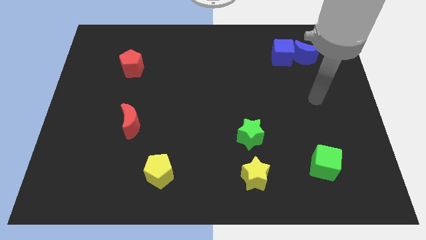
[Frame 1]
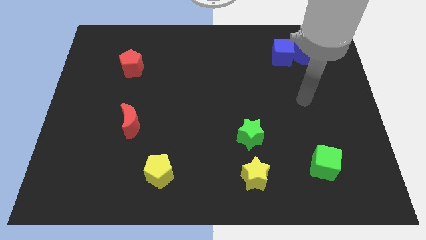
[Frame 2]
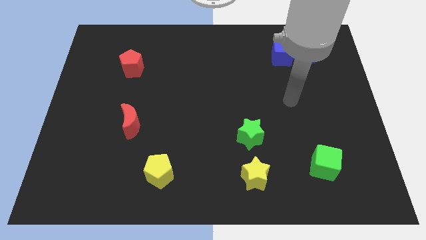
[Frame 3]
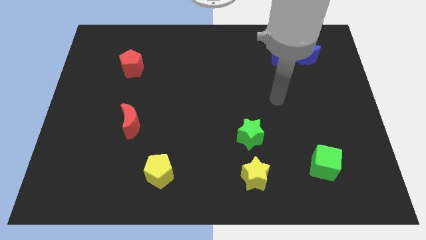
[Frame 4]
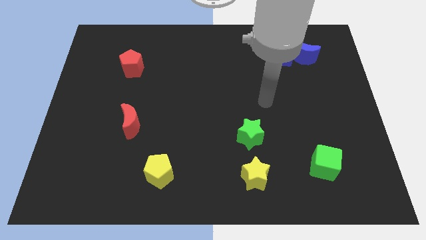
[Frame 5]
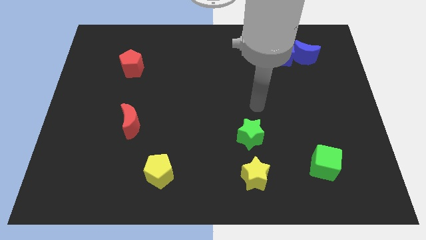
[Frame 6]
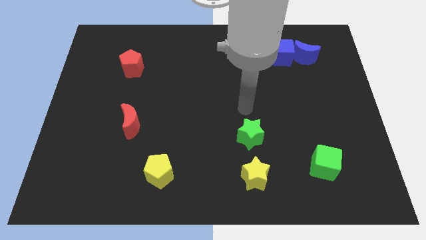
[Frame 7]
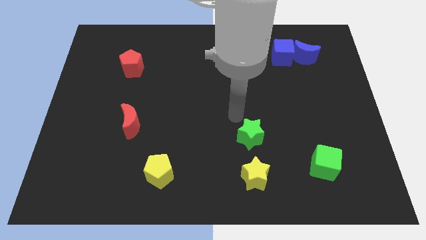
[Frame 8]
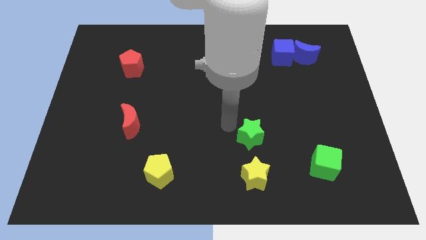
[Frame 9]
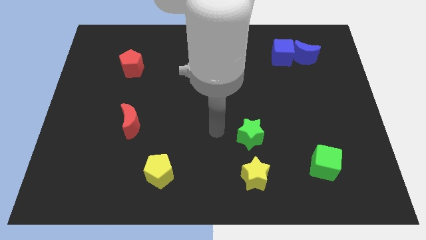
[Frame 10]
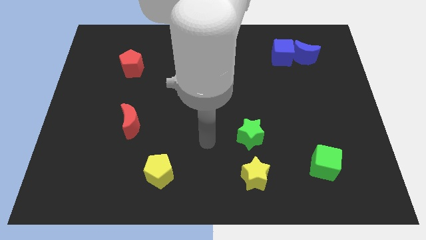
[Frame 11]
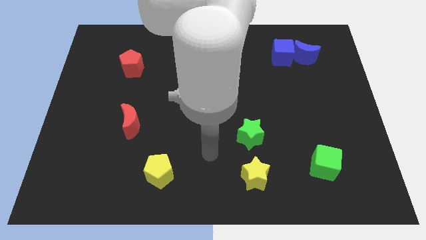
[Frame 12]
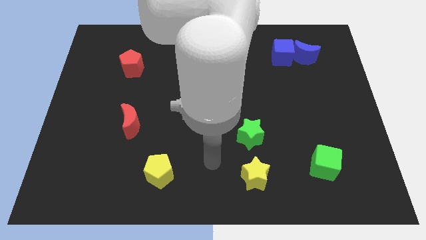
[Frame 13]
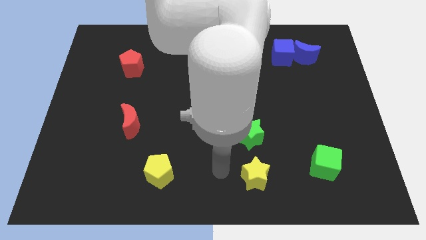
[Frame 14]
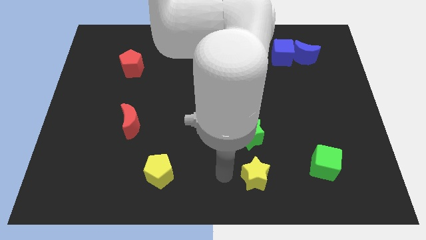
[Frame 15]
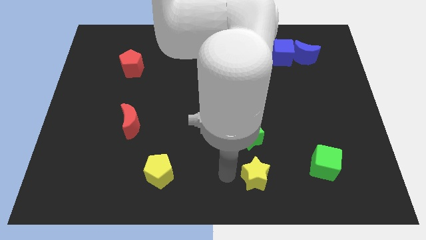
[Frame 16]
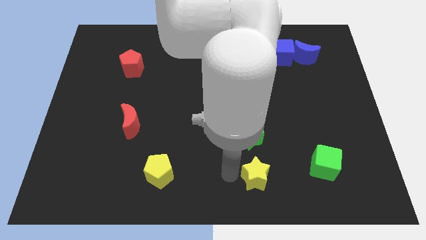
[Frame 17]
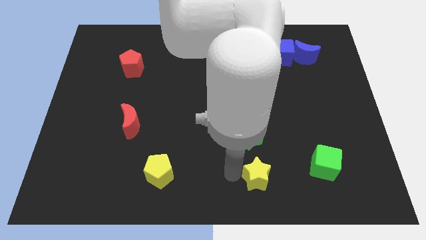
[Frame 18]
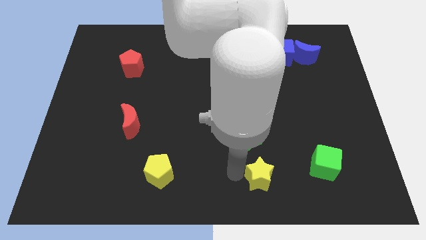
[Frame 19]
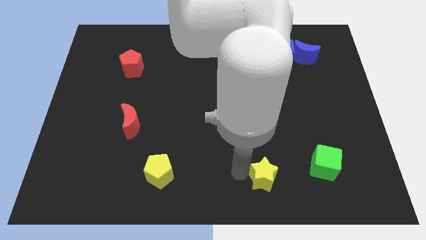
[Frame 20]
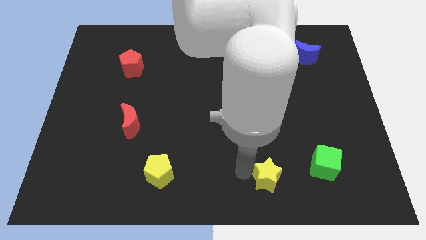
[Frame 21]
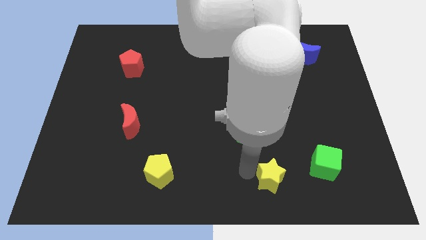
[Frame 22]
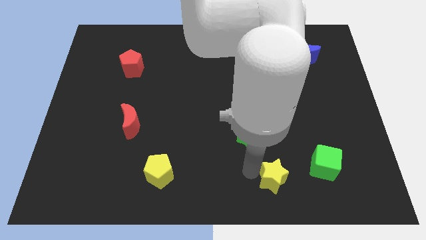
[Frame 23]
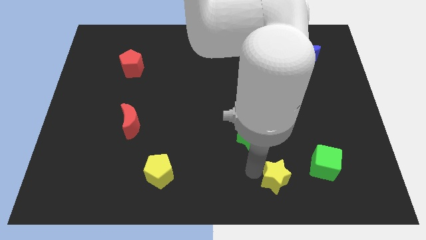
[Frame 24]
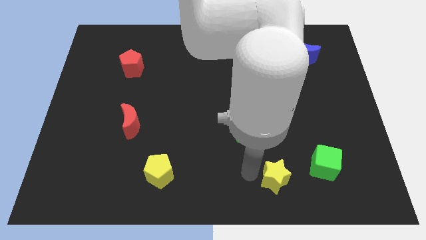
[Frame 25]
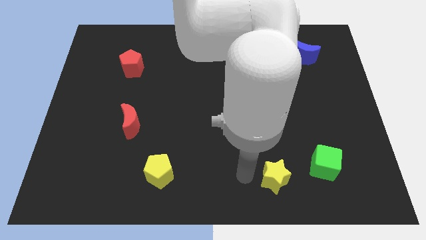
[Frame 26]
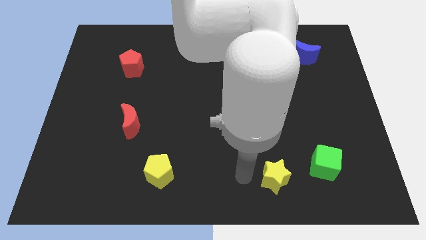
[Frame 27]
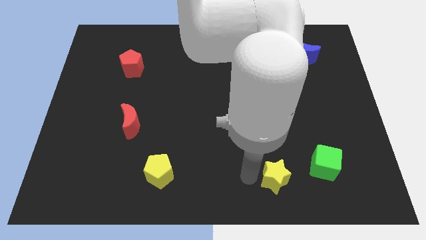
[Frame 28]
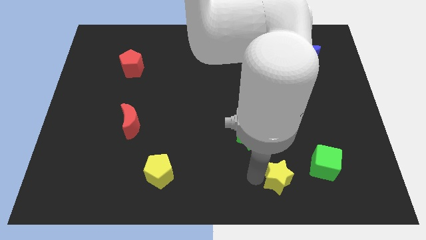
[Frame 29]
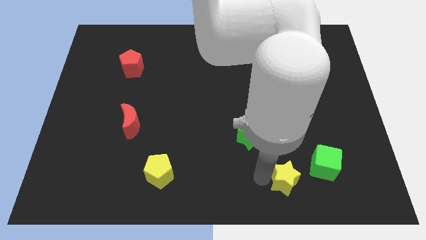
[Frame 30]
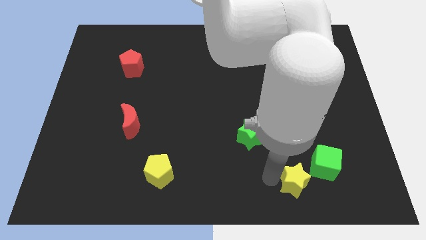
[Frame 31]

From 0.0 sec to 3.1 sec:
slide the yellow star to the right a little

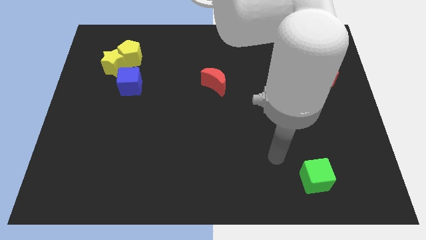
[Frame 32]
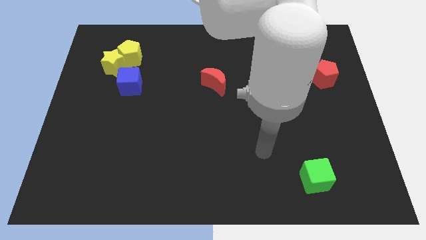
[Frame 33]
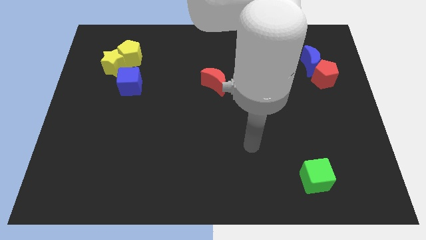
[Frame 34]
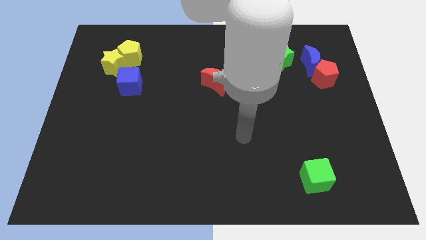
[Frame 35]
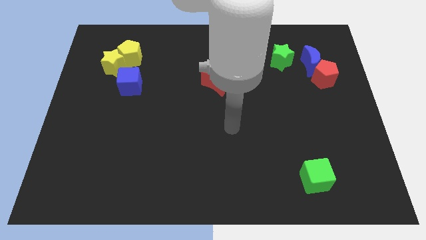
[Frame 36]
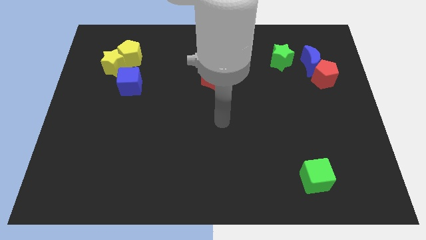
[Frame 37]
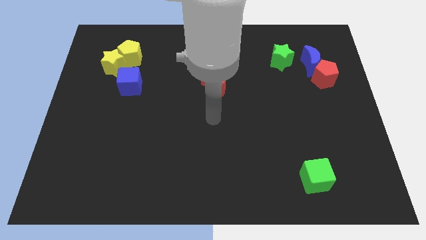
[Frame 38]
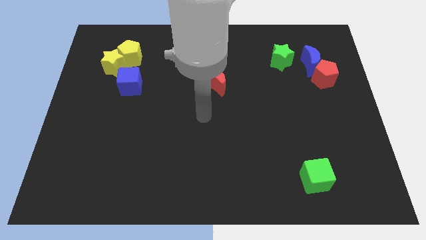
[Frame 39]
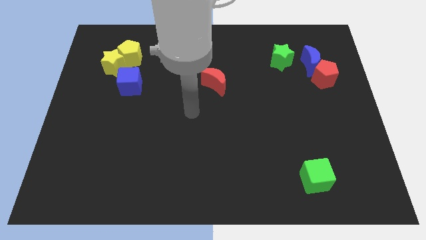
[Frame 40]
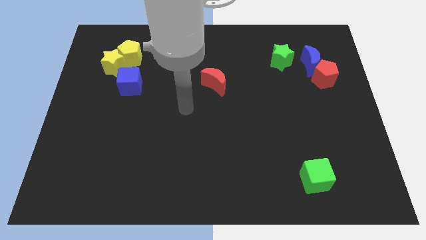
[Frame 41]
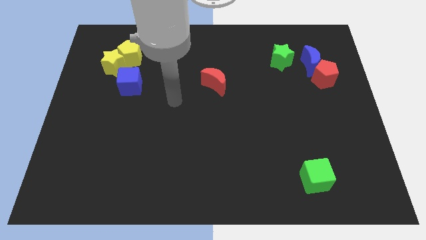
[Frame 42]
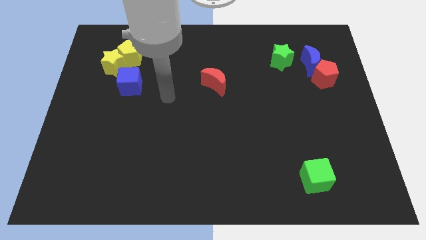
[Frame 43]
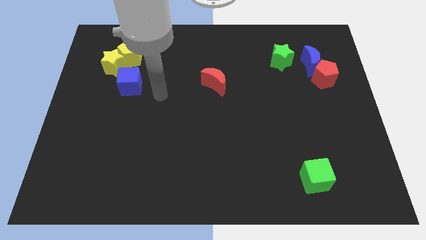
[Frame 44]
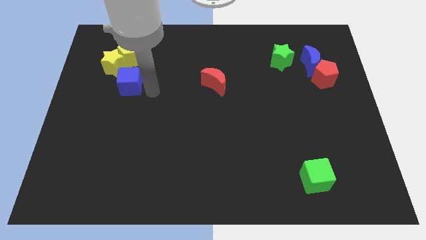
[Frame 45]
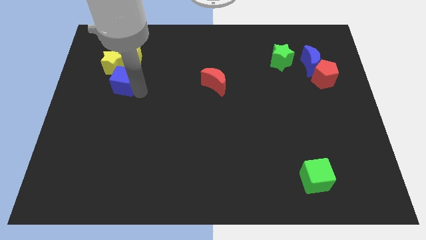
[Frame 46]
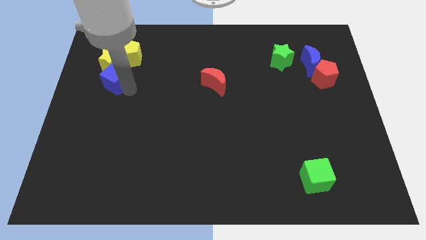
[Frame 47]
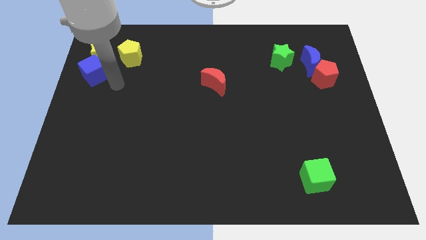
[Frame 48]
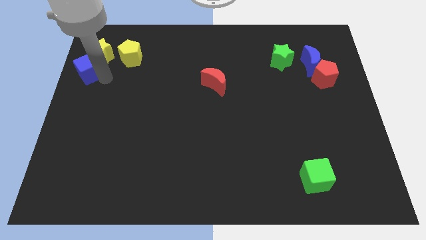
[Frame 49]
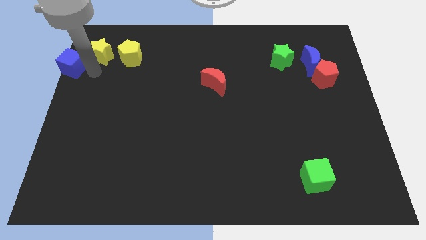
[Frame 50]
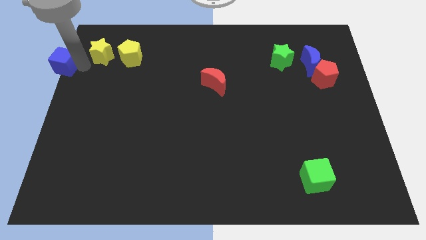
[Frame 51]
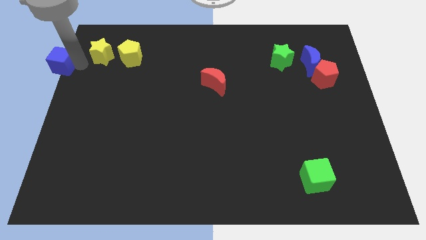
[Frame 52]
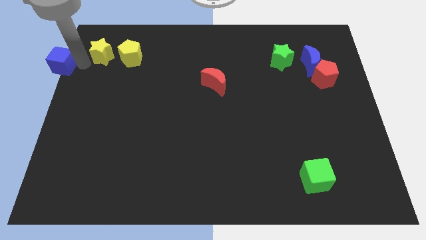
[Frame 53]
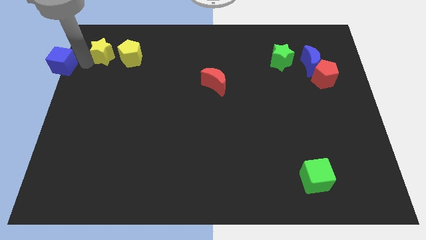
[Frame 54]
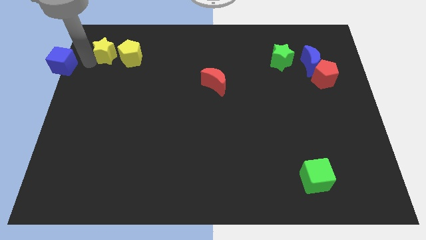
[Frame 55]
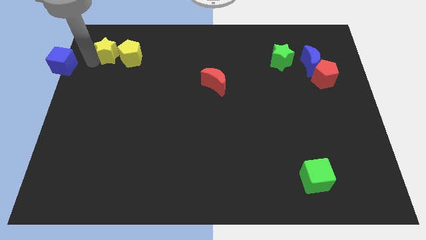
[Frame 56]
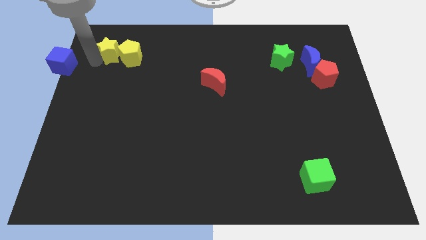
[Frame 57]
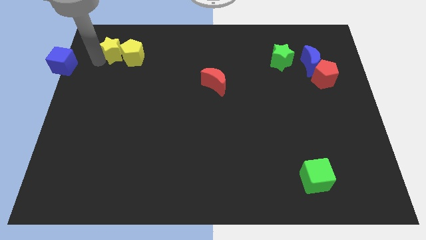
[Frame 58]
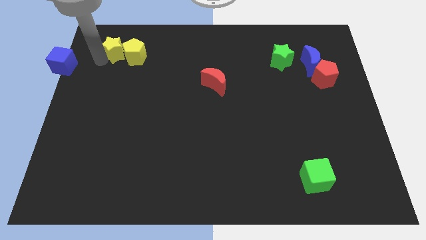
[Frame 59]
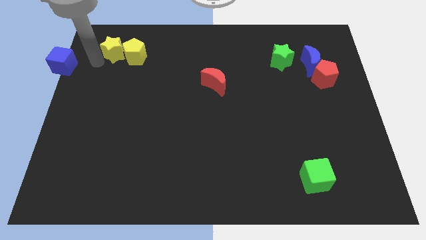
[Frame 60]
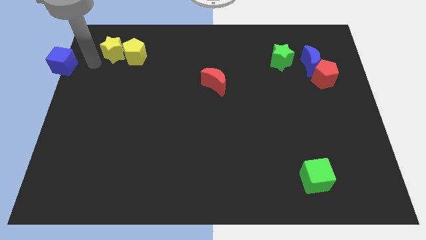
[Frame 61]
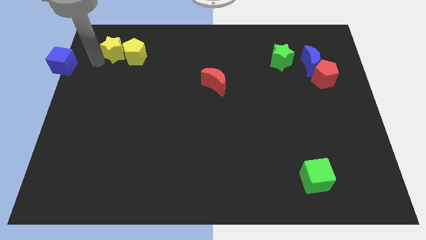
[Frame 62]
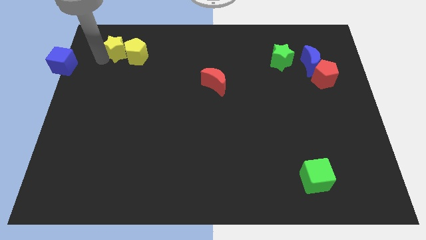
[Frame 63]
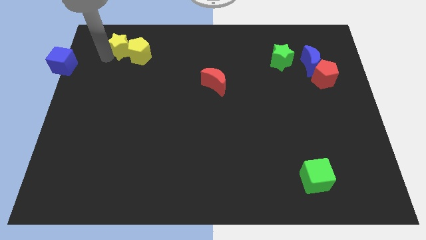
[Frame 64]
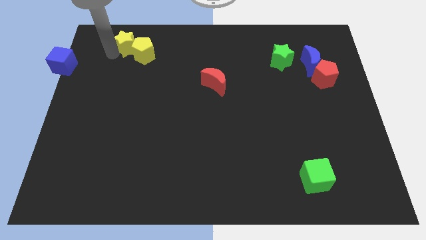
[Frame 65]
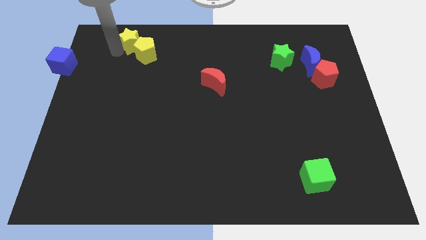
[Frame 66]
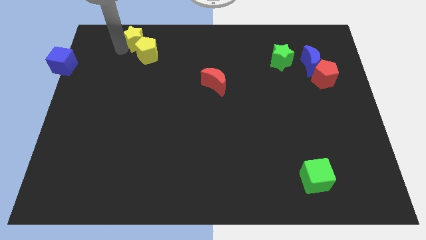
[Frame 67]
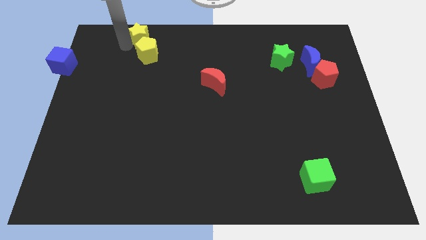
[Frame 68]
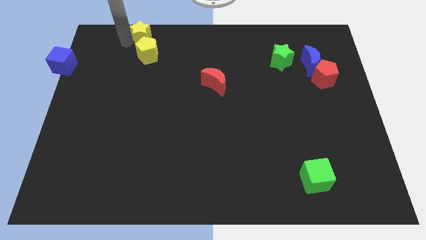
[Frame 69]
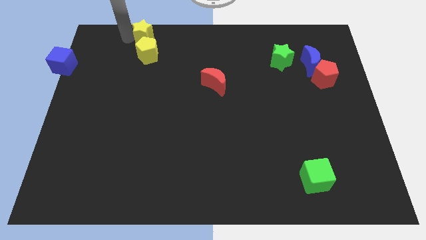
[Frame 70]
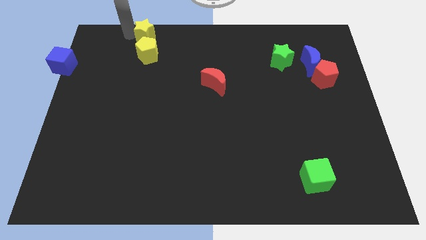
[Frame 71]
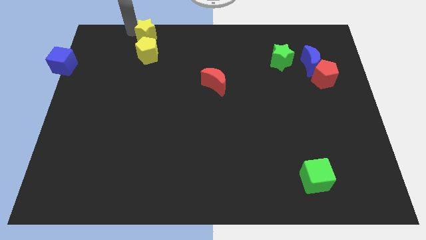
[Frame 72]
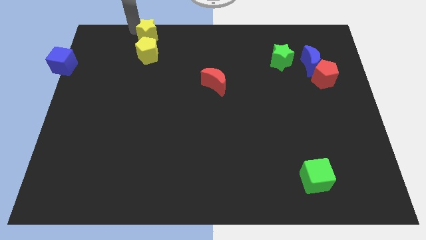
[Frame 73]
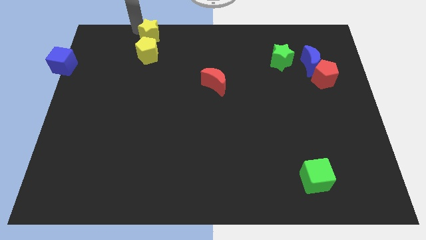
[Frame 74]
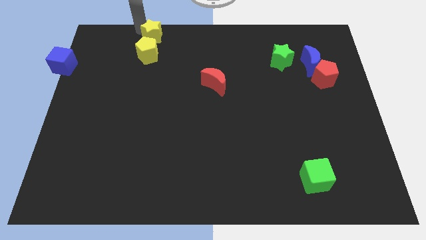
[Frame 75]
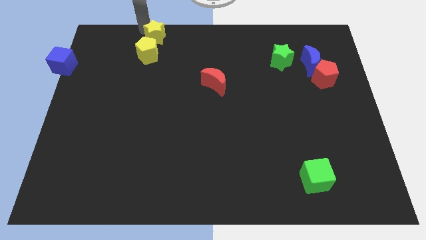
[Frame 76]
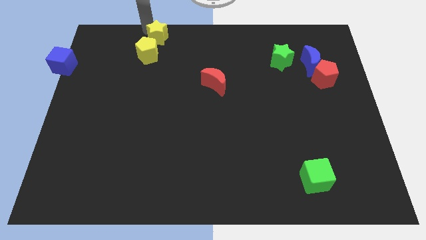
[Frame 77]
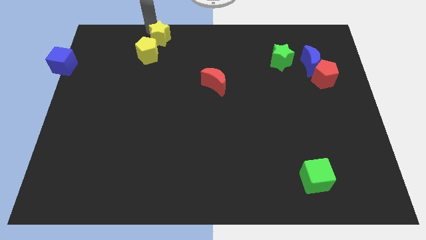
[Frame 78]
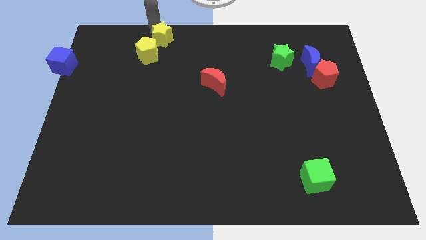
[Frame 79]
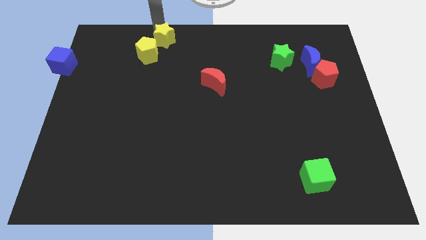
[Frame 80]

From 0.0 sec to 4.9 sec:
move the yellow star right slightly

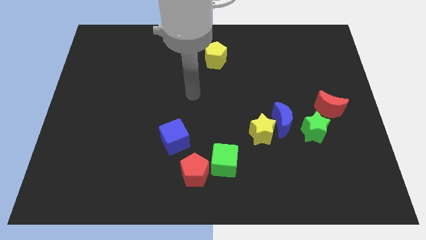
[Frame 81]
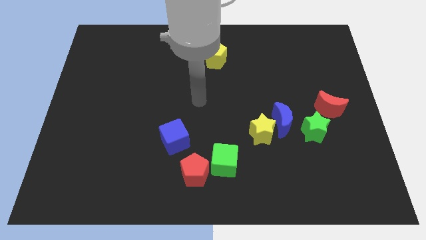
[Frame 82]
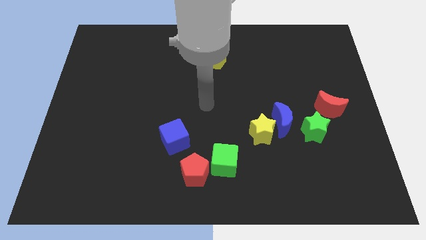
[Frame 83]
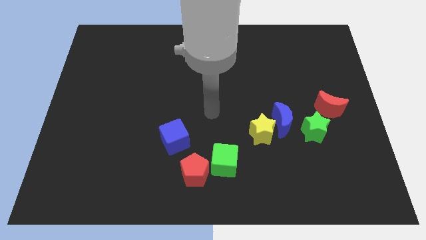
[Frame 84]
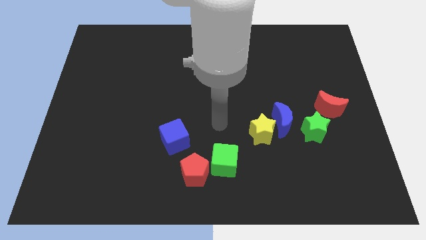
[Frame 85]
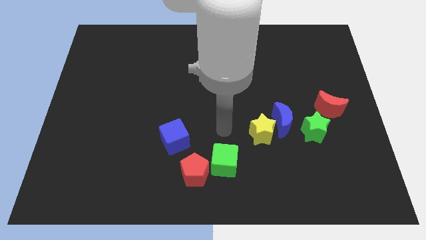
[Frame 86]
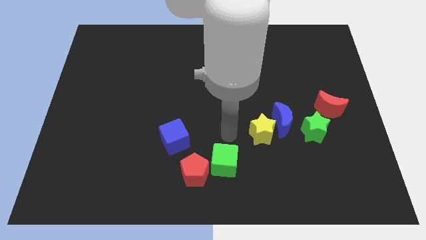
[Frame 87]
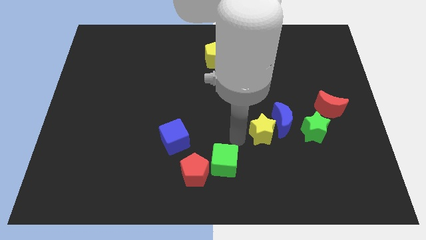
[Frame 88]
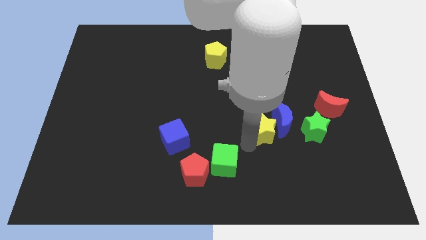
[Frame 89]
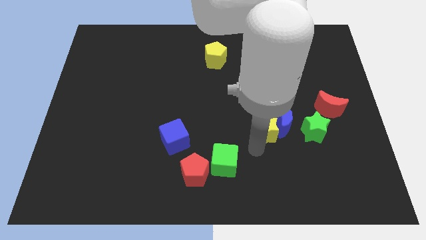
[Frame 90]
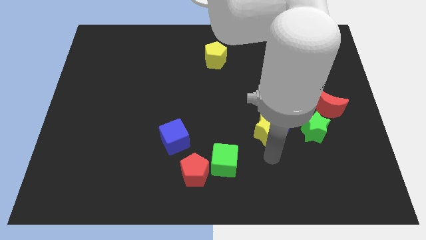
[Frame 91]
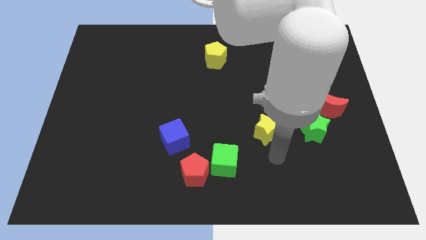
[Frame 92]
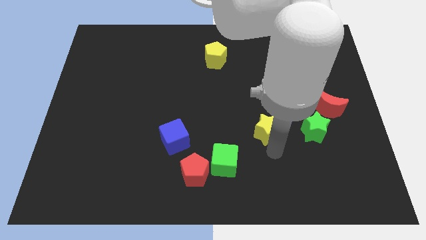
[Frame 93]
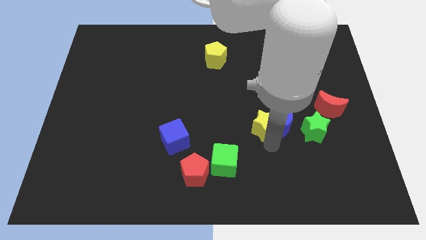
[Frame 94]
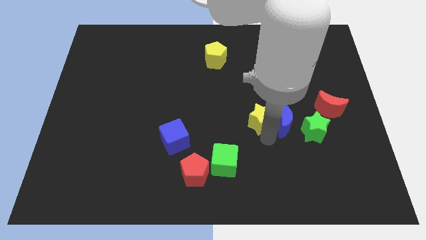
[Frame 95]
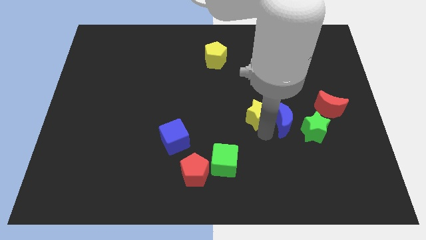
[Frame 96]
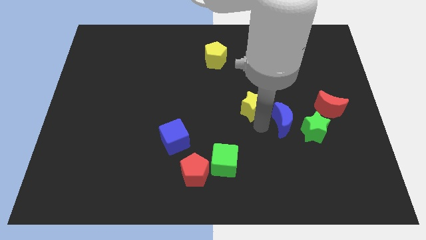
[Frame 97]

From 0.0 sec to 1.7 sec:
push the yellow star slightly up
